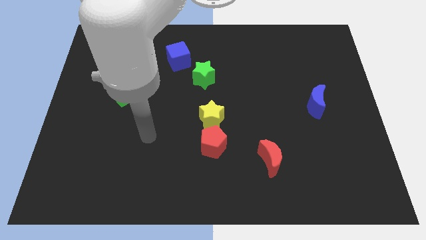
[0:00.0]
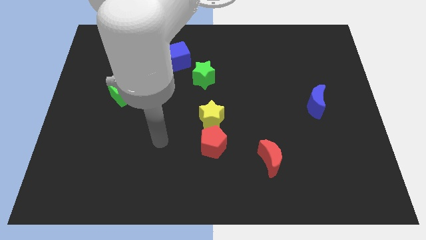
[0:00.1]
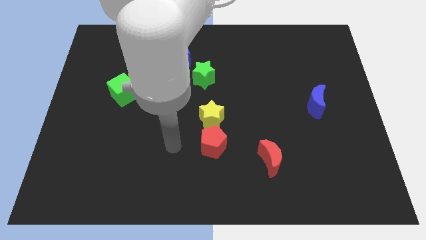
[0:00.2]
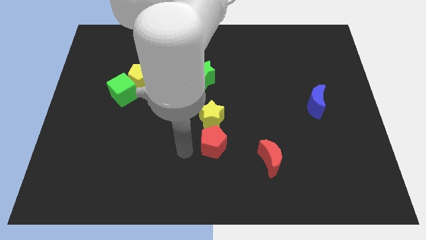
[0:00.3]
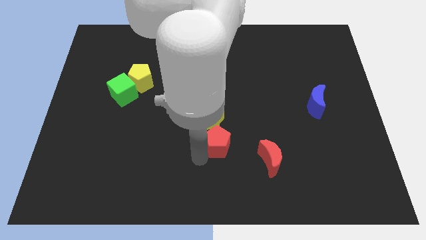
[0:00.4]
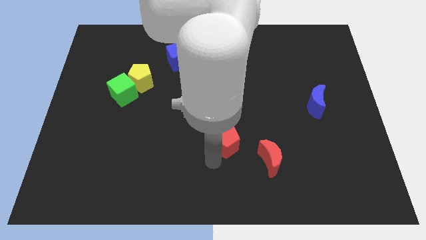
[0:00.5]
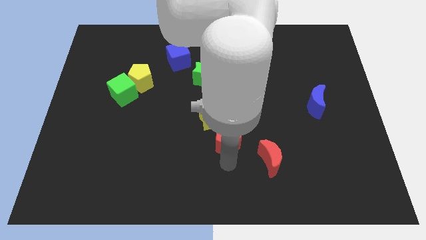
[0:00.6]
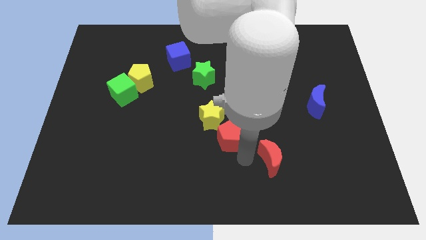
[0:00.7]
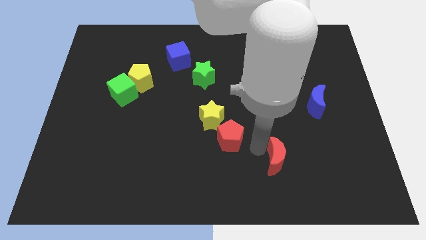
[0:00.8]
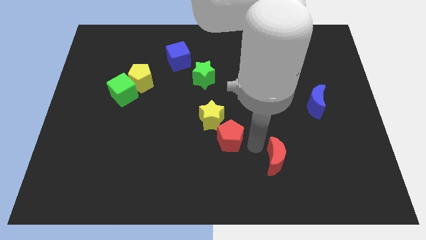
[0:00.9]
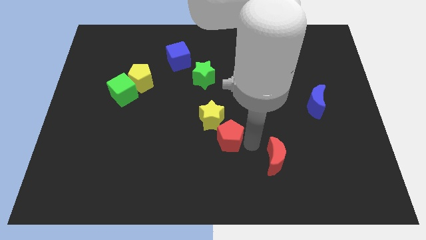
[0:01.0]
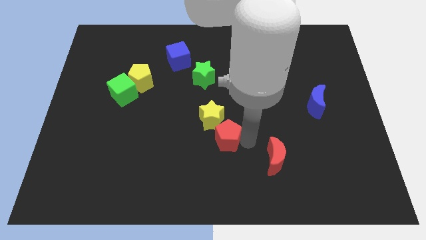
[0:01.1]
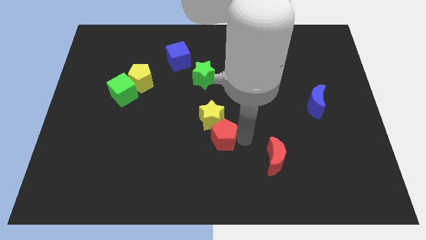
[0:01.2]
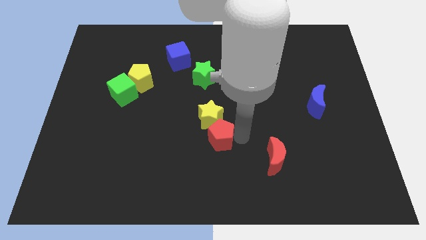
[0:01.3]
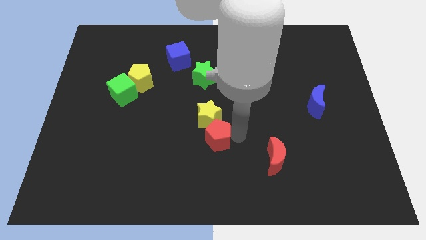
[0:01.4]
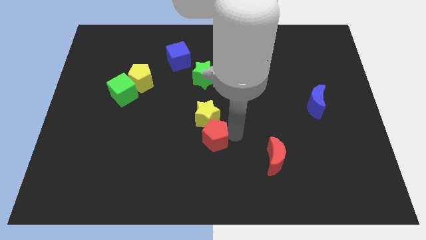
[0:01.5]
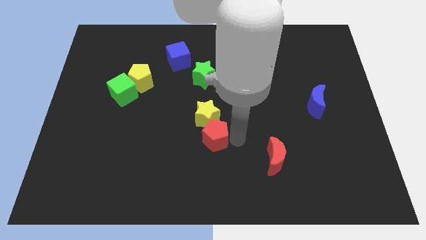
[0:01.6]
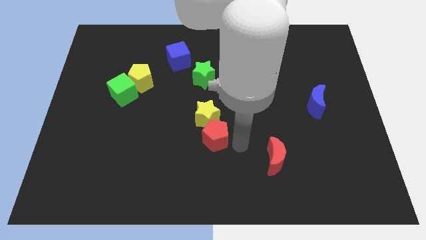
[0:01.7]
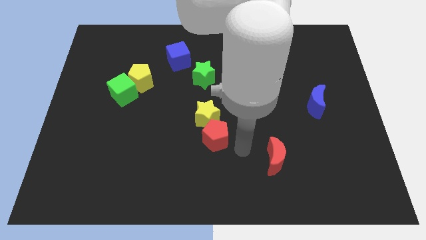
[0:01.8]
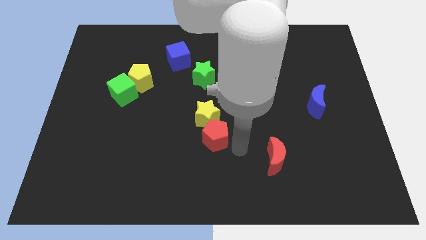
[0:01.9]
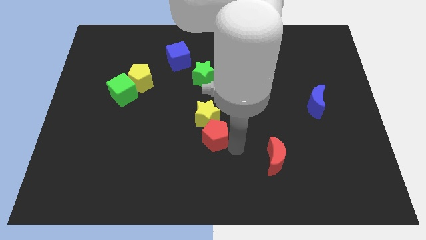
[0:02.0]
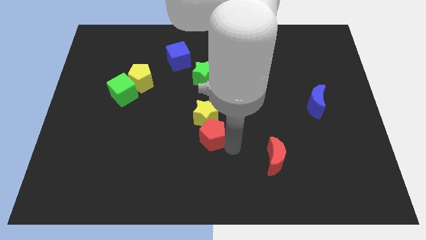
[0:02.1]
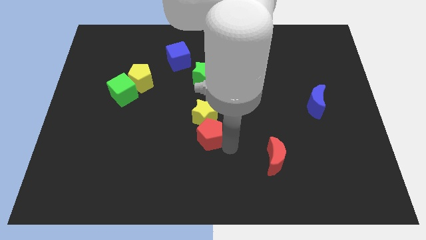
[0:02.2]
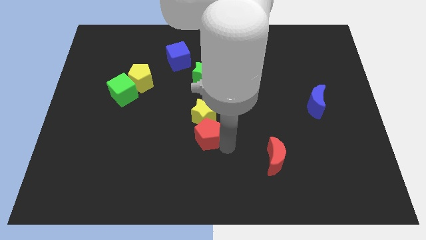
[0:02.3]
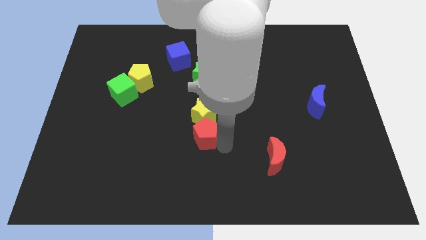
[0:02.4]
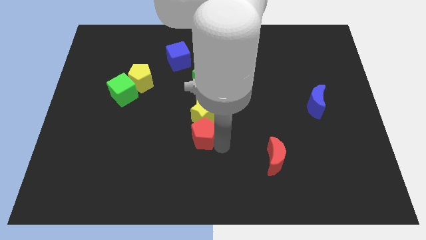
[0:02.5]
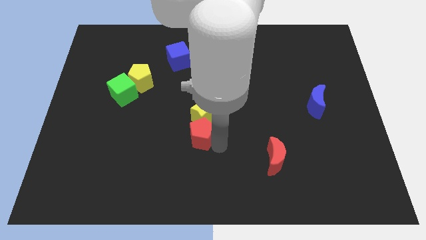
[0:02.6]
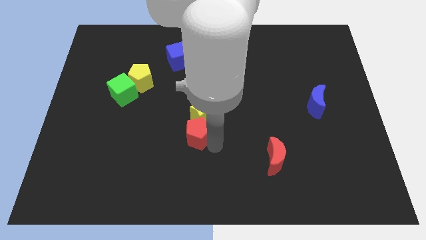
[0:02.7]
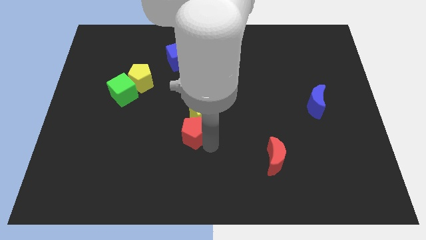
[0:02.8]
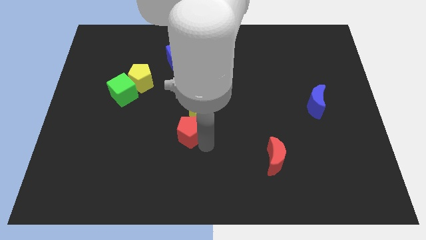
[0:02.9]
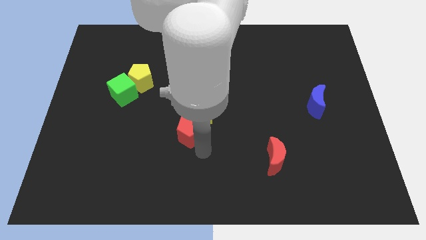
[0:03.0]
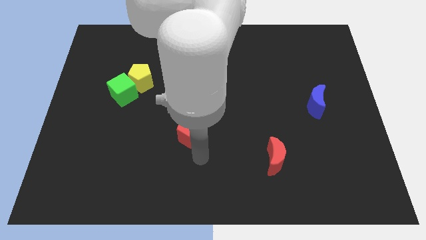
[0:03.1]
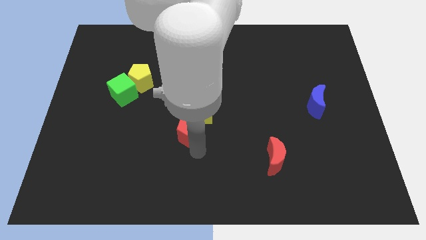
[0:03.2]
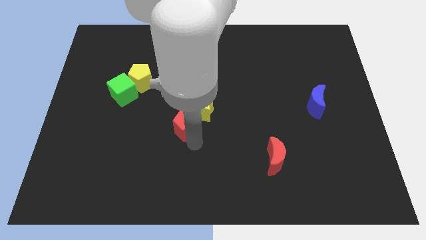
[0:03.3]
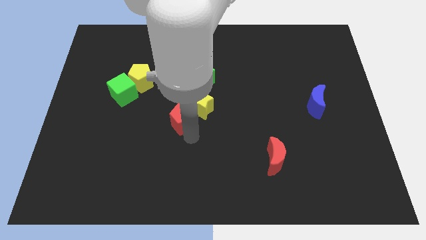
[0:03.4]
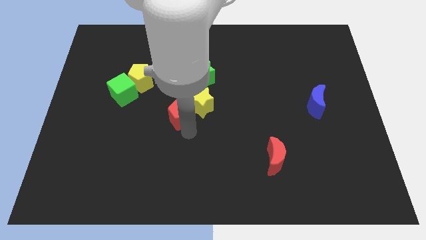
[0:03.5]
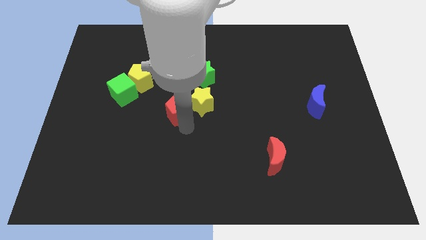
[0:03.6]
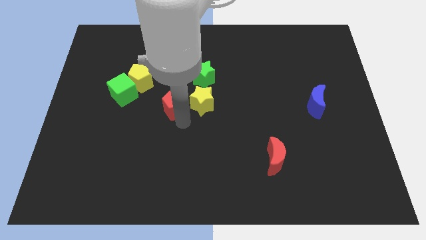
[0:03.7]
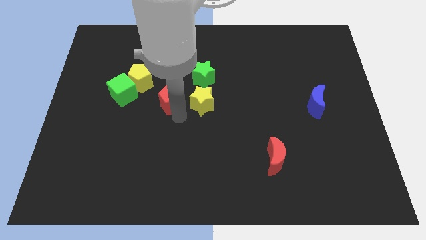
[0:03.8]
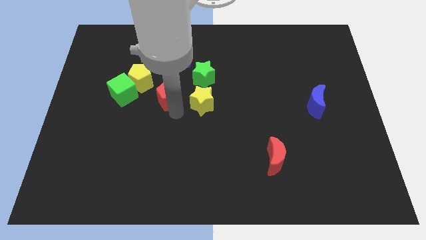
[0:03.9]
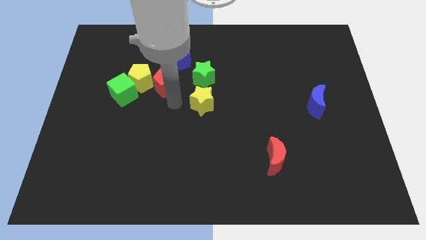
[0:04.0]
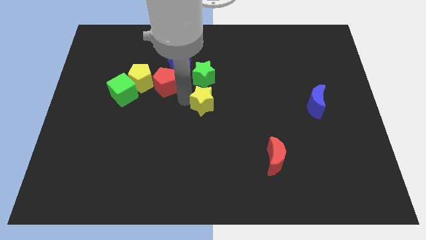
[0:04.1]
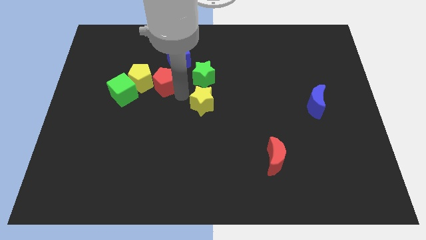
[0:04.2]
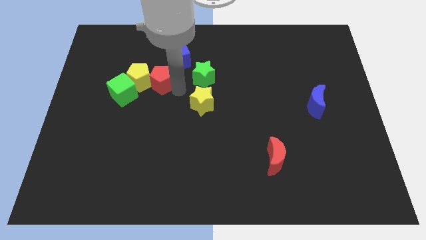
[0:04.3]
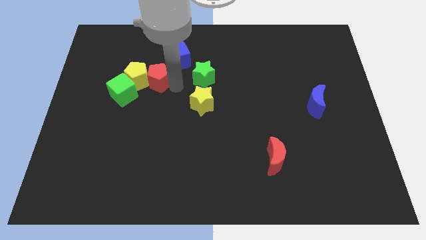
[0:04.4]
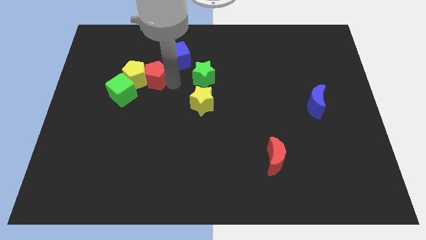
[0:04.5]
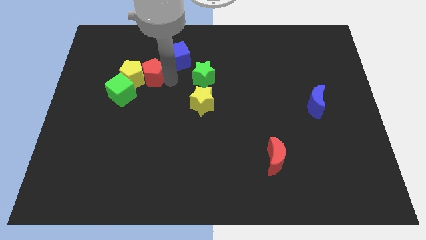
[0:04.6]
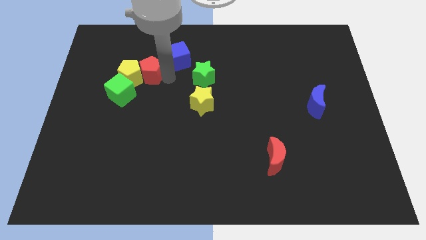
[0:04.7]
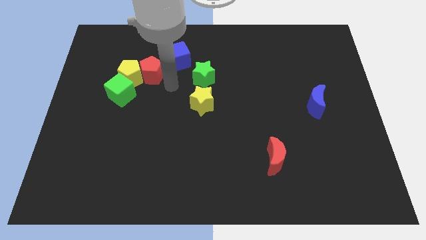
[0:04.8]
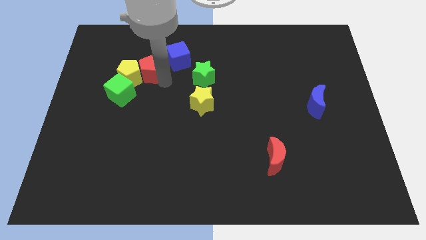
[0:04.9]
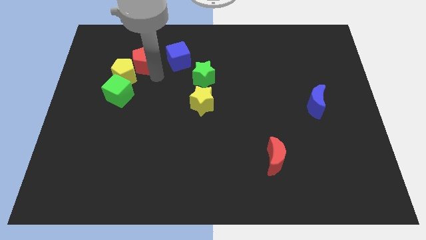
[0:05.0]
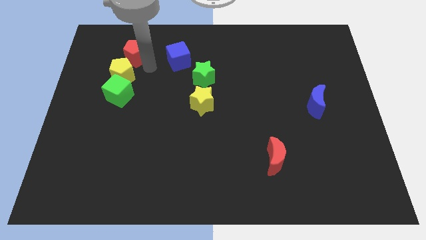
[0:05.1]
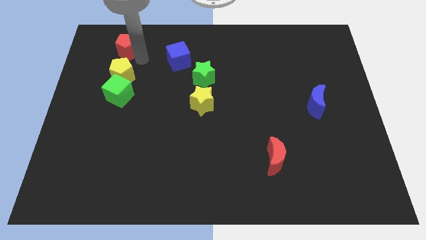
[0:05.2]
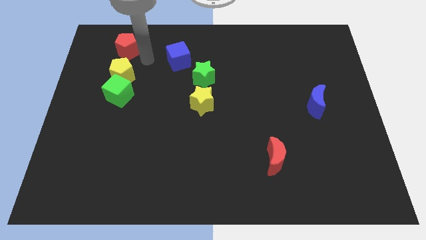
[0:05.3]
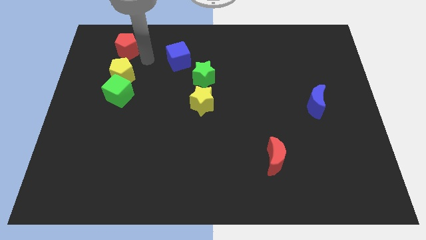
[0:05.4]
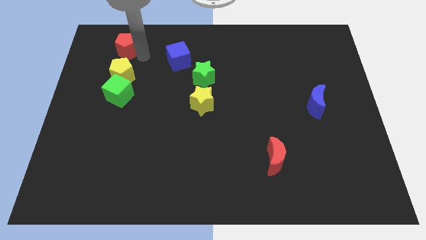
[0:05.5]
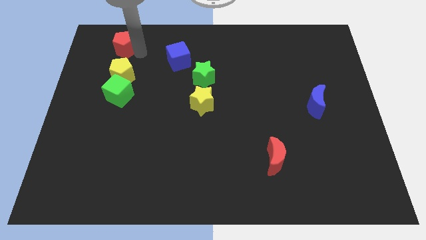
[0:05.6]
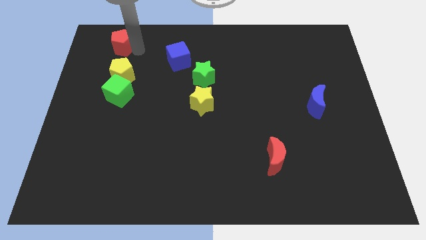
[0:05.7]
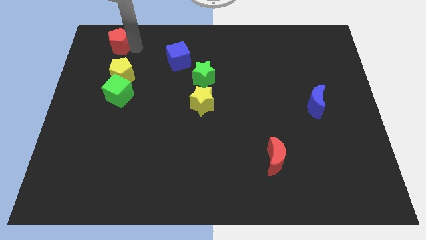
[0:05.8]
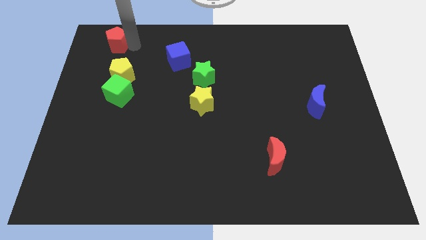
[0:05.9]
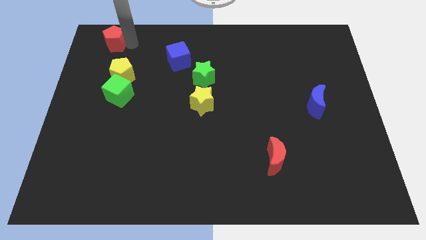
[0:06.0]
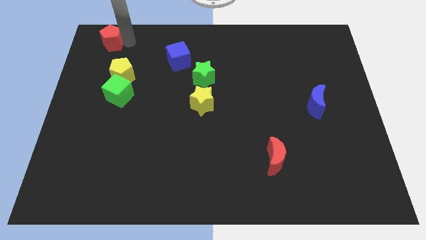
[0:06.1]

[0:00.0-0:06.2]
push the red pentagon to the top left of the board

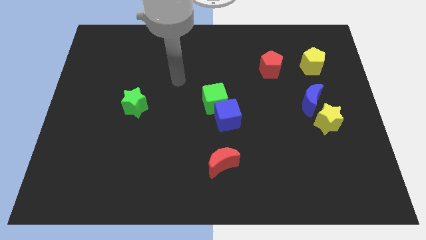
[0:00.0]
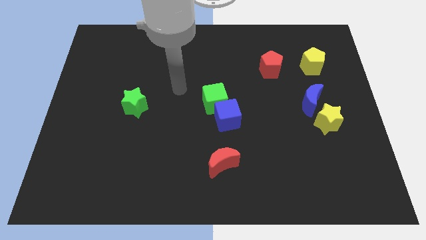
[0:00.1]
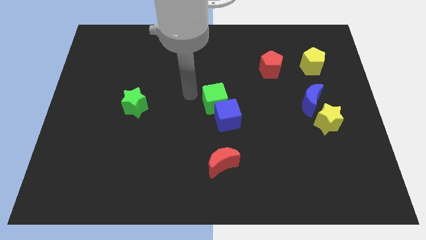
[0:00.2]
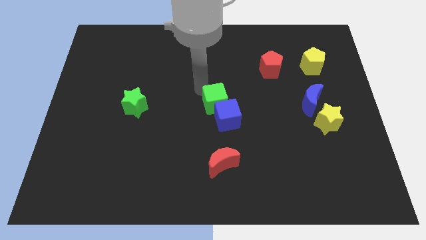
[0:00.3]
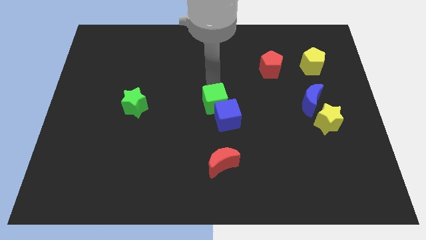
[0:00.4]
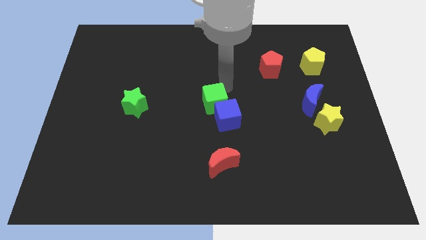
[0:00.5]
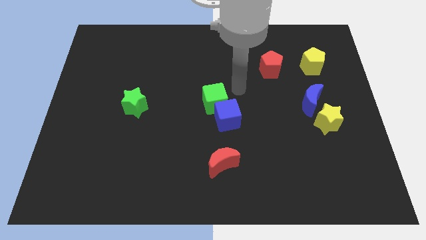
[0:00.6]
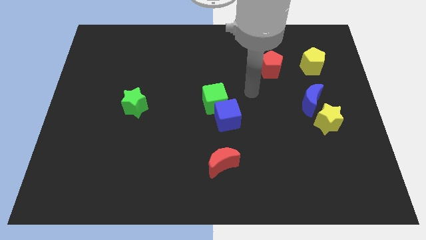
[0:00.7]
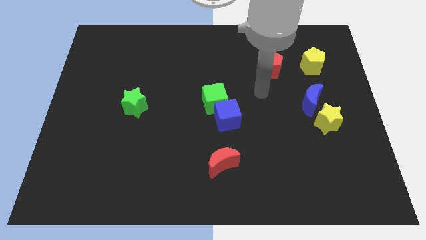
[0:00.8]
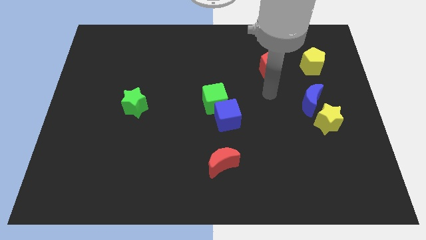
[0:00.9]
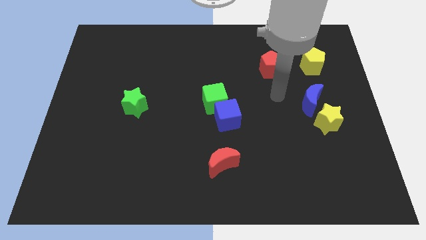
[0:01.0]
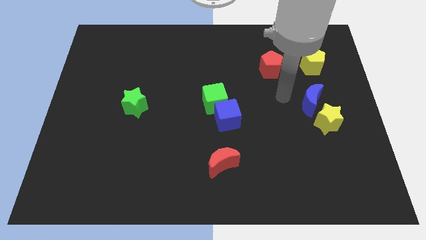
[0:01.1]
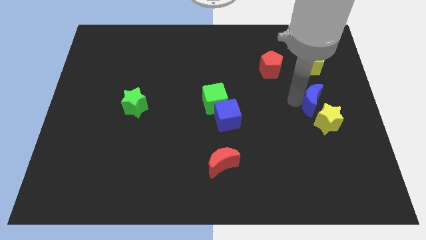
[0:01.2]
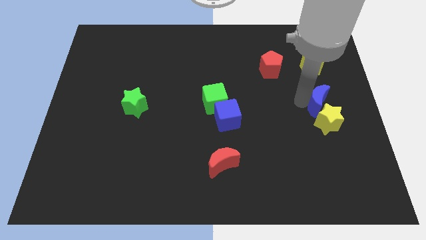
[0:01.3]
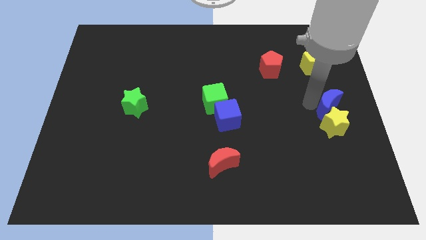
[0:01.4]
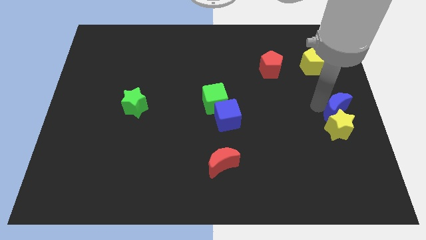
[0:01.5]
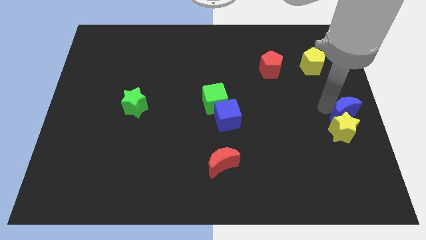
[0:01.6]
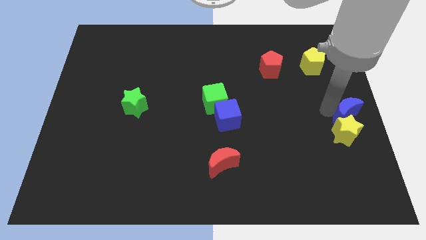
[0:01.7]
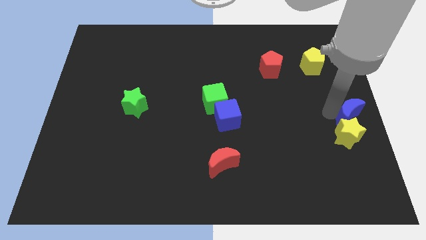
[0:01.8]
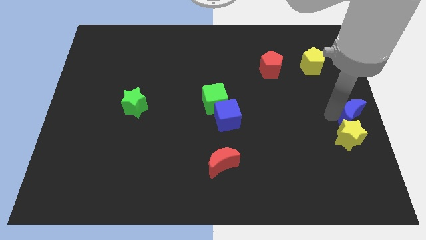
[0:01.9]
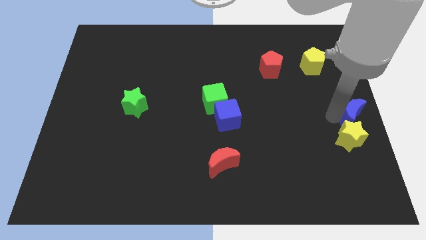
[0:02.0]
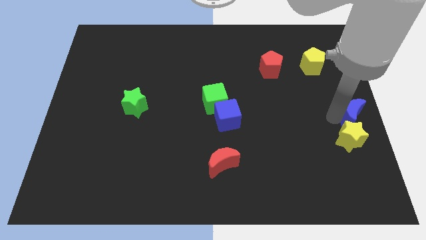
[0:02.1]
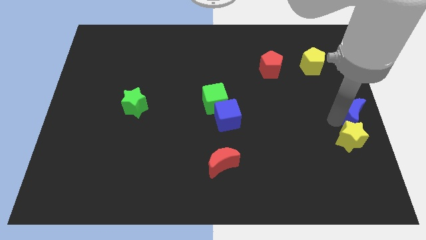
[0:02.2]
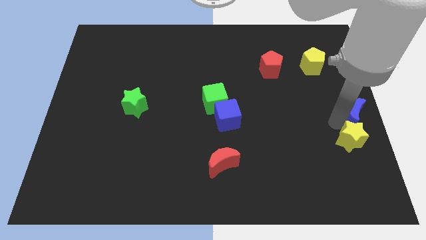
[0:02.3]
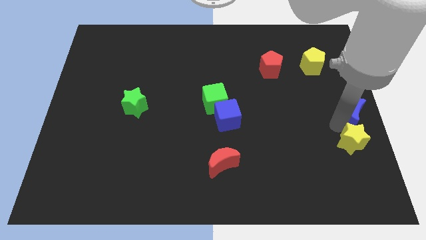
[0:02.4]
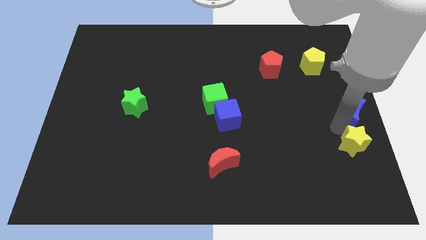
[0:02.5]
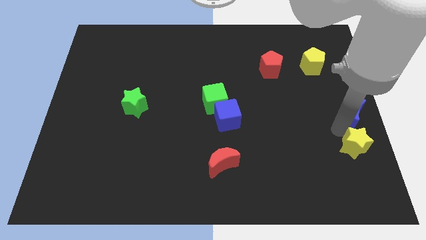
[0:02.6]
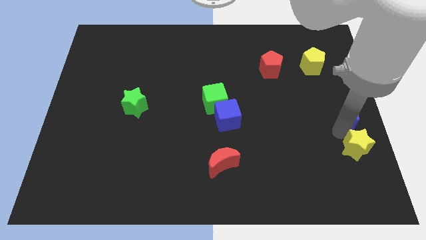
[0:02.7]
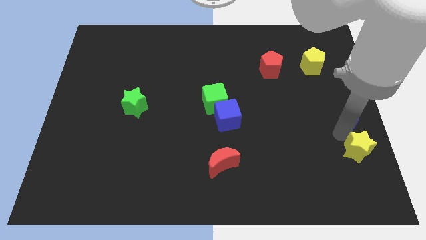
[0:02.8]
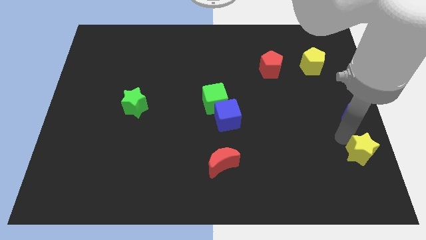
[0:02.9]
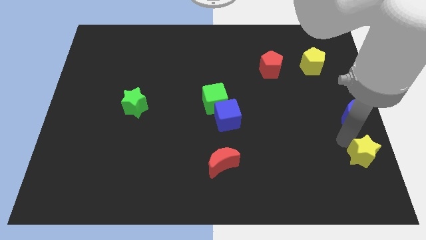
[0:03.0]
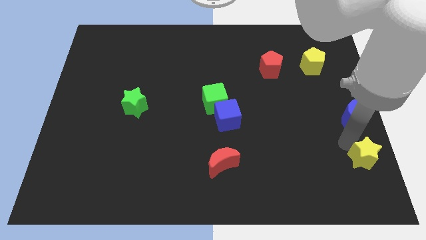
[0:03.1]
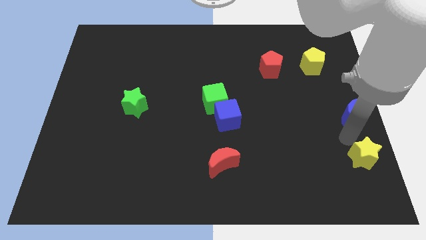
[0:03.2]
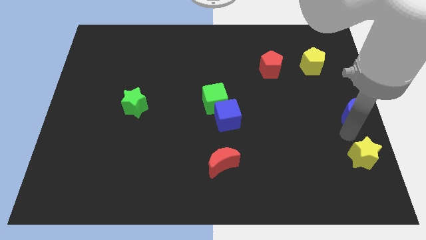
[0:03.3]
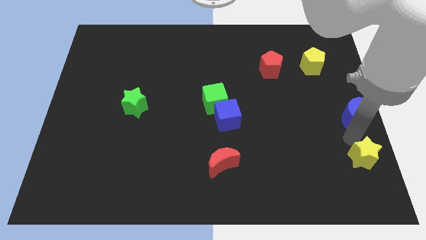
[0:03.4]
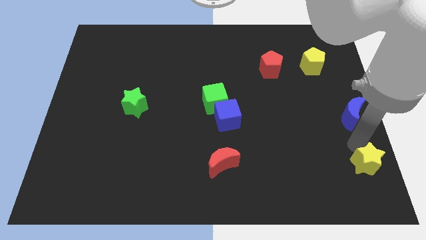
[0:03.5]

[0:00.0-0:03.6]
push the yellow star to the bottom right corner
